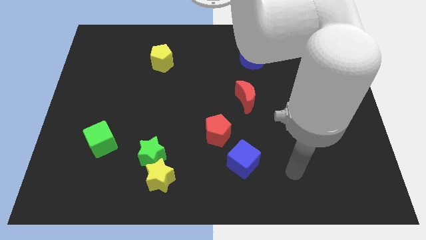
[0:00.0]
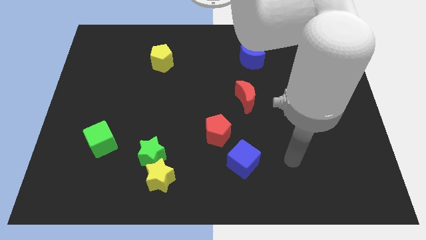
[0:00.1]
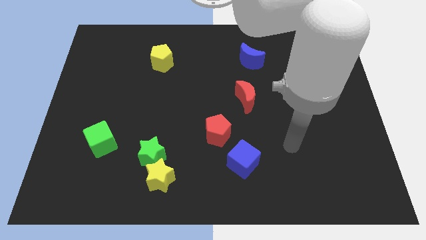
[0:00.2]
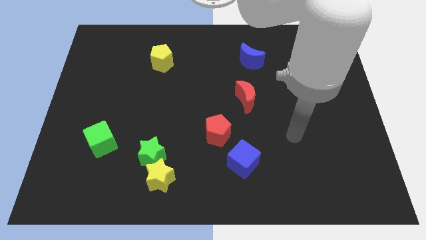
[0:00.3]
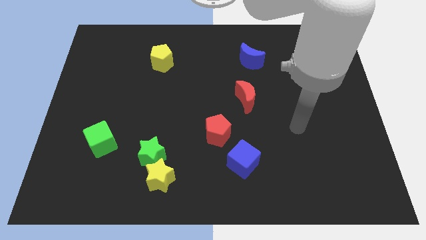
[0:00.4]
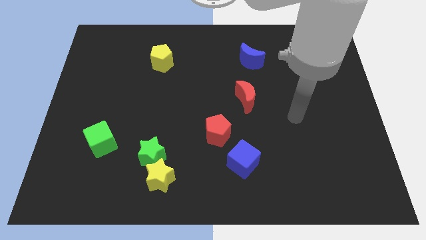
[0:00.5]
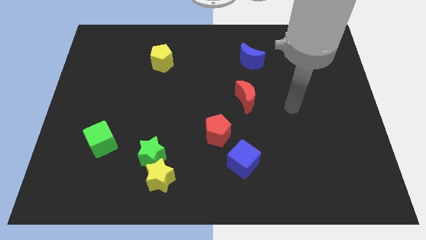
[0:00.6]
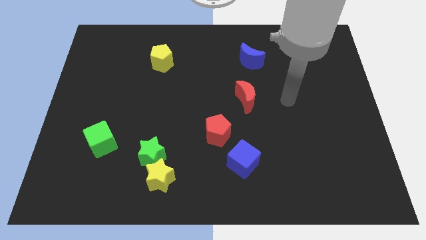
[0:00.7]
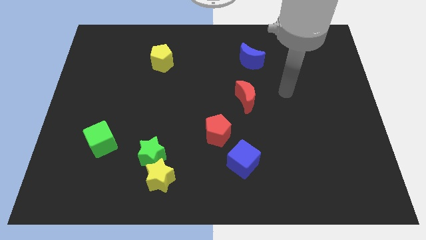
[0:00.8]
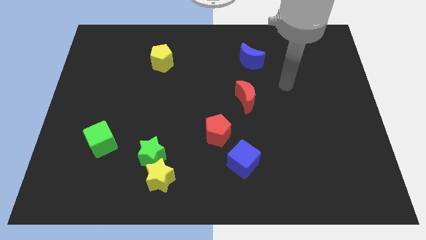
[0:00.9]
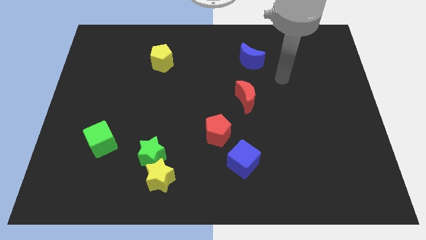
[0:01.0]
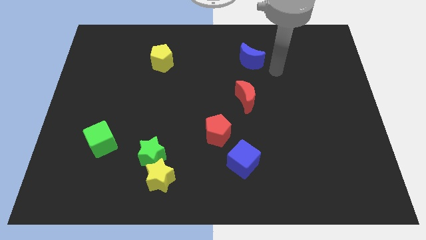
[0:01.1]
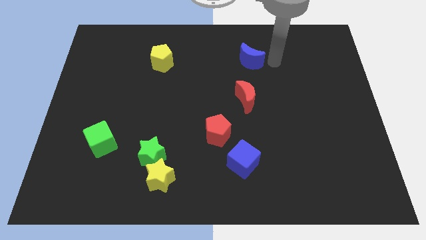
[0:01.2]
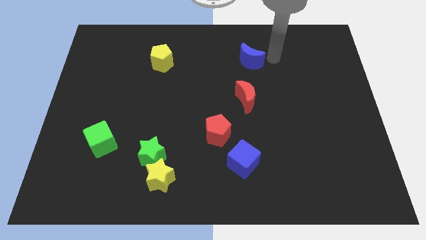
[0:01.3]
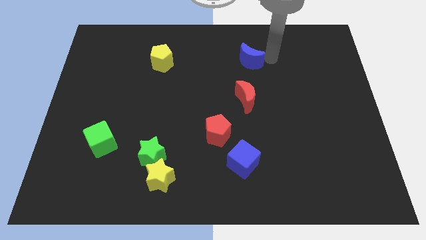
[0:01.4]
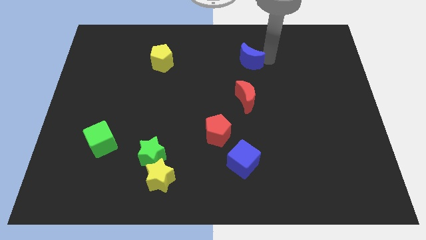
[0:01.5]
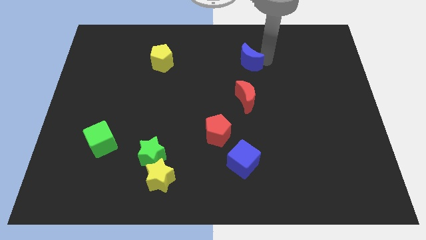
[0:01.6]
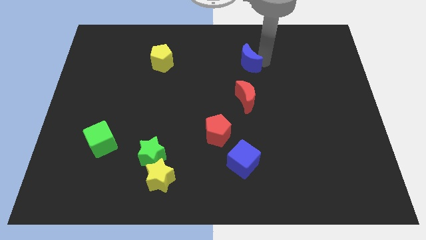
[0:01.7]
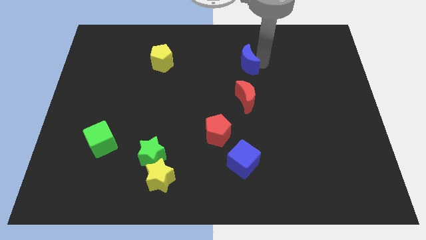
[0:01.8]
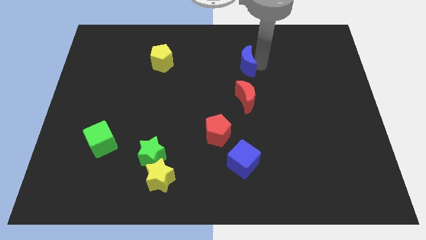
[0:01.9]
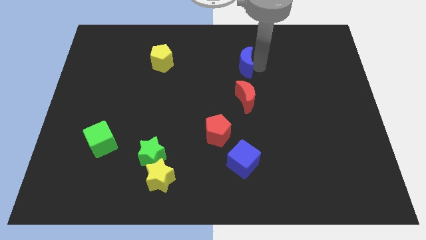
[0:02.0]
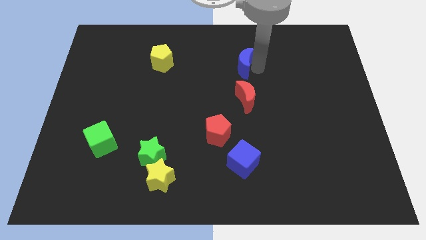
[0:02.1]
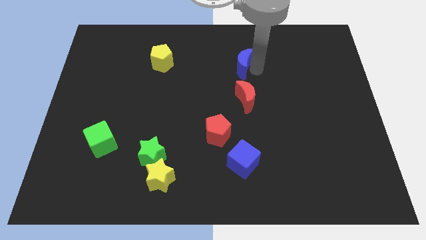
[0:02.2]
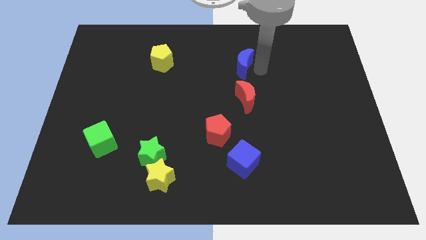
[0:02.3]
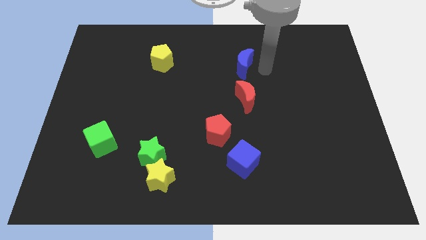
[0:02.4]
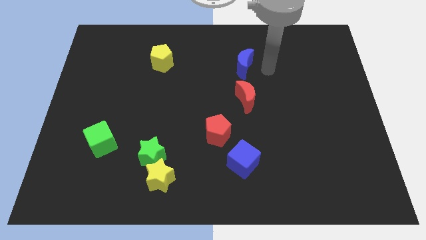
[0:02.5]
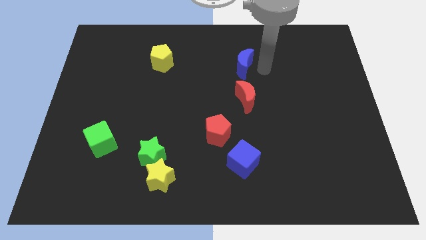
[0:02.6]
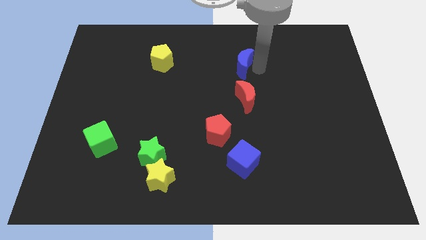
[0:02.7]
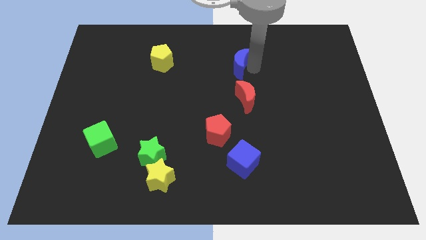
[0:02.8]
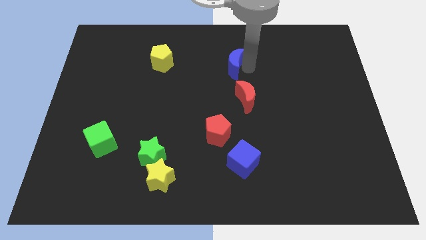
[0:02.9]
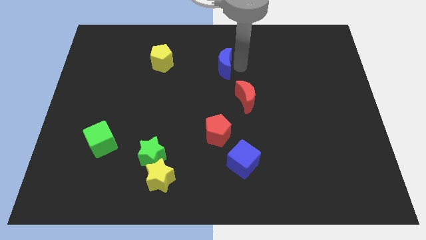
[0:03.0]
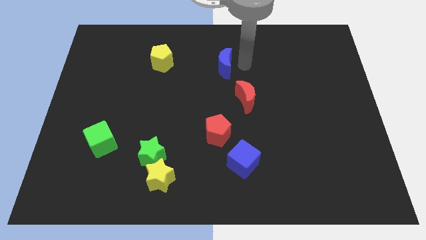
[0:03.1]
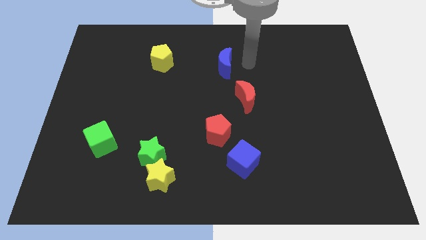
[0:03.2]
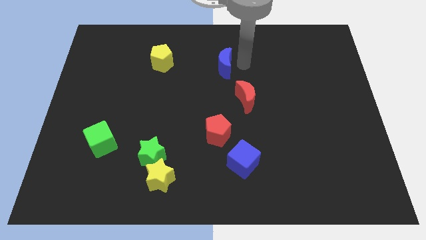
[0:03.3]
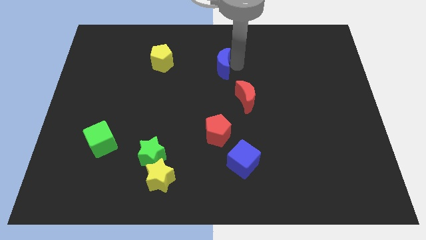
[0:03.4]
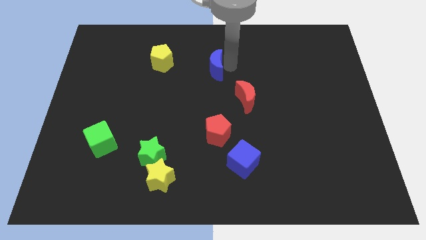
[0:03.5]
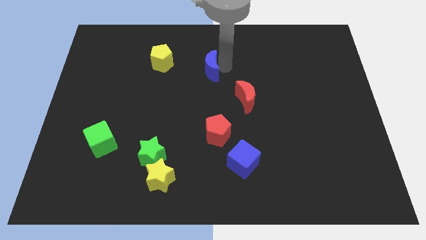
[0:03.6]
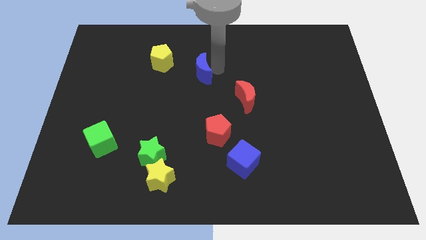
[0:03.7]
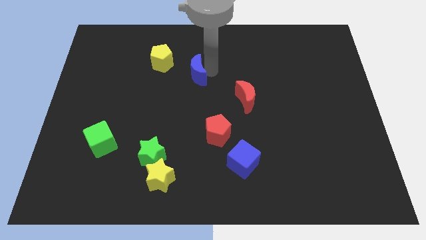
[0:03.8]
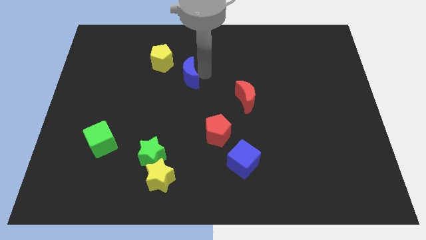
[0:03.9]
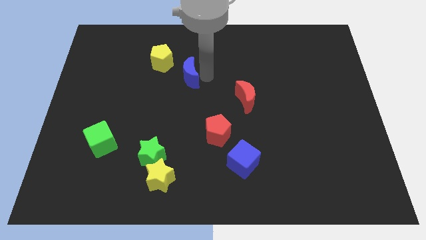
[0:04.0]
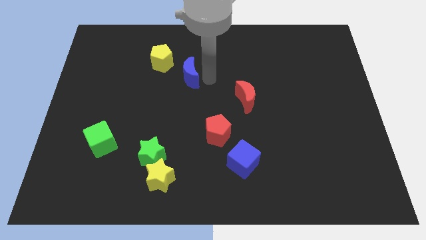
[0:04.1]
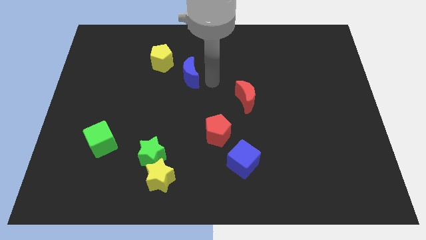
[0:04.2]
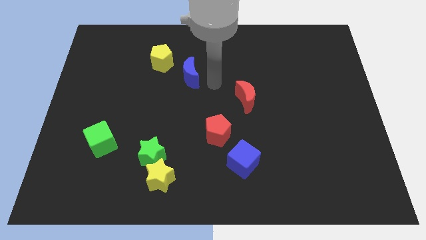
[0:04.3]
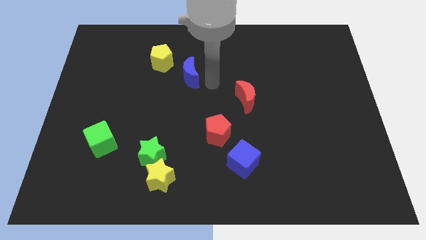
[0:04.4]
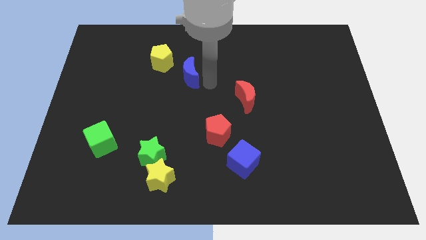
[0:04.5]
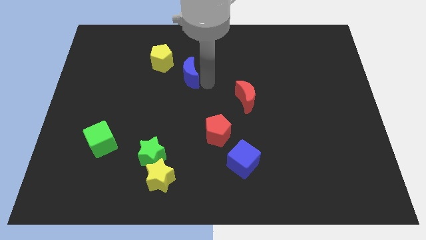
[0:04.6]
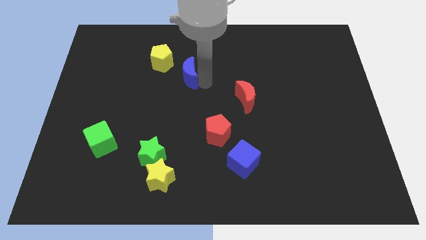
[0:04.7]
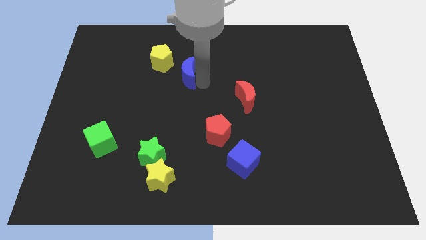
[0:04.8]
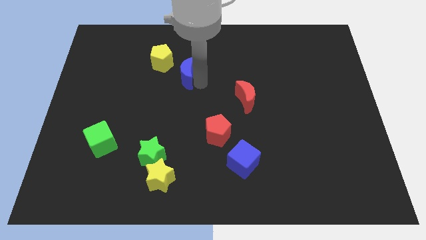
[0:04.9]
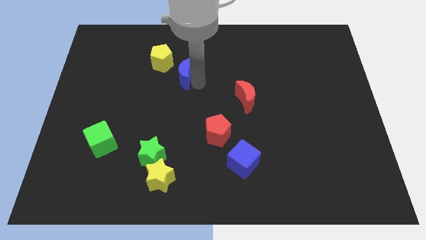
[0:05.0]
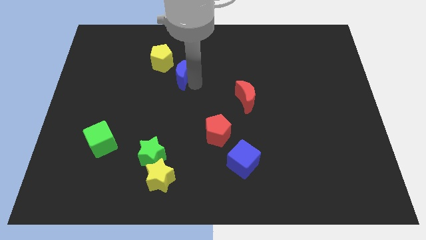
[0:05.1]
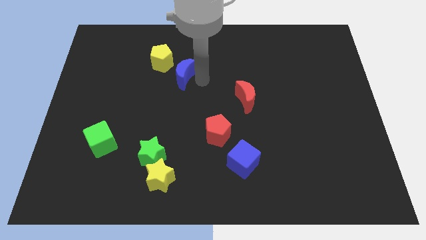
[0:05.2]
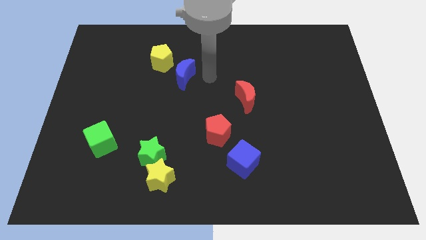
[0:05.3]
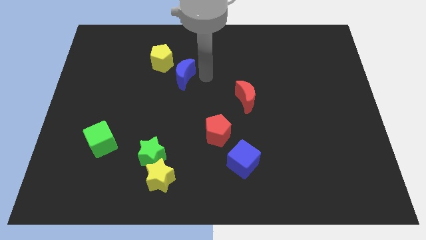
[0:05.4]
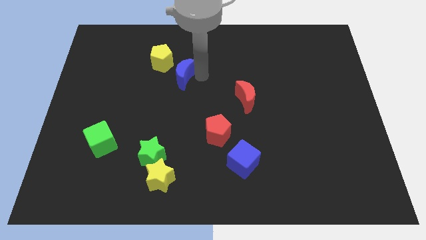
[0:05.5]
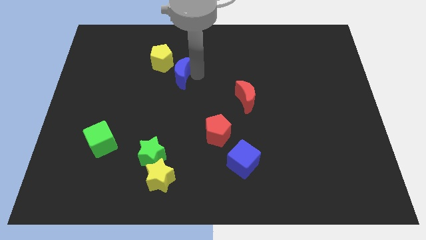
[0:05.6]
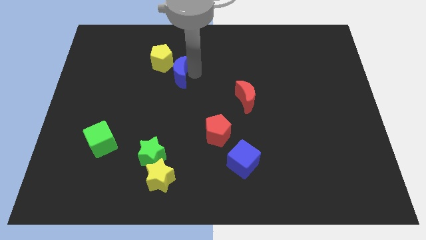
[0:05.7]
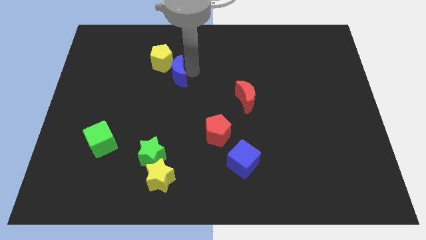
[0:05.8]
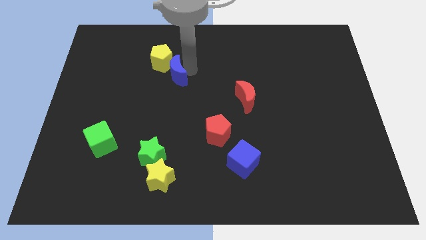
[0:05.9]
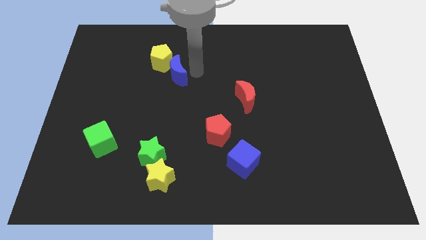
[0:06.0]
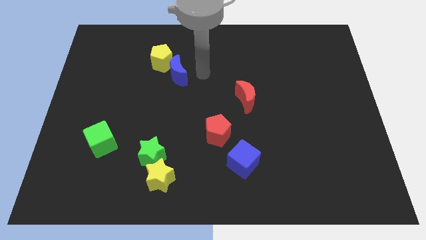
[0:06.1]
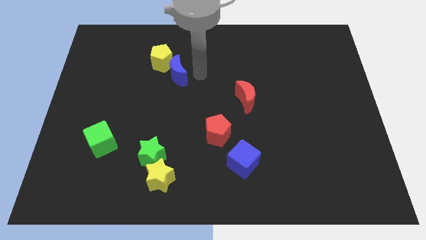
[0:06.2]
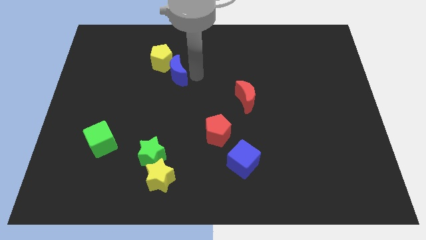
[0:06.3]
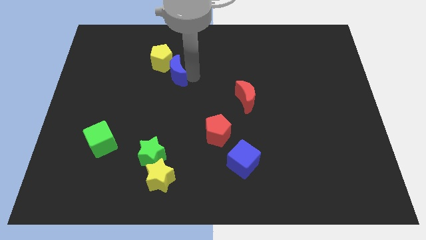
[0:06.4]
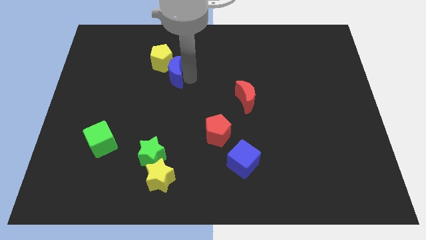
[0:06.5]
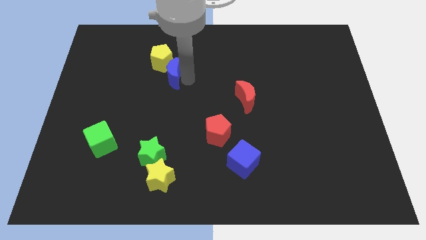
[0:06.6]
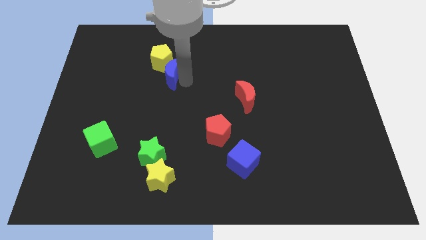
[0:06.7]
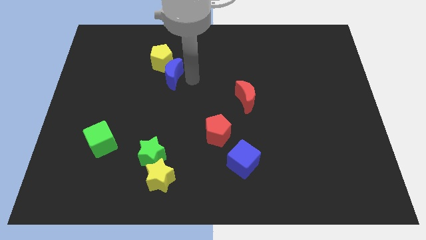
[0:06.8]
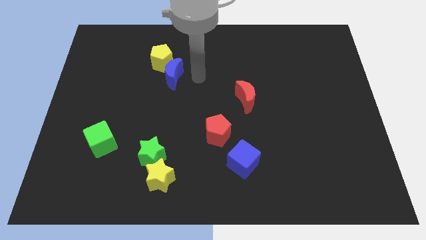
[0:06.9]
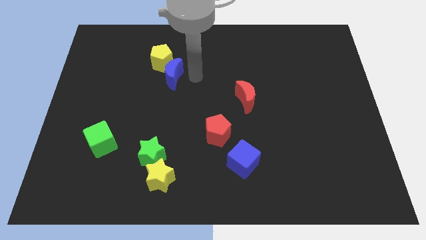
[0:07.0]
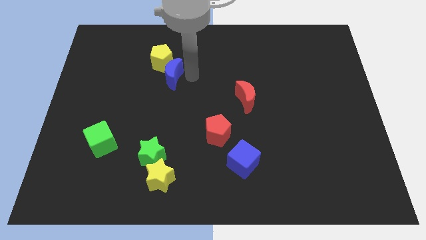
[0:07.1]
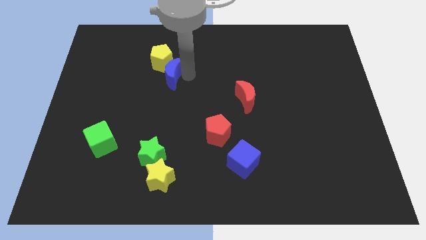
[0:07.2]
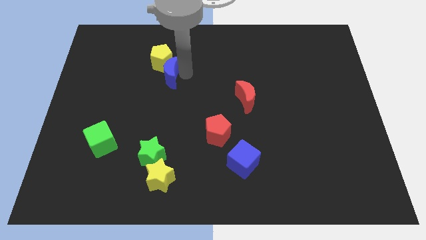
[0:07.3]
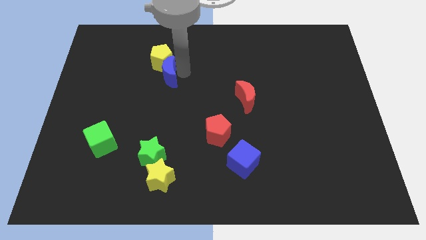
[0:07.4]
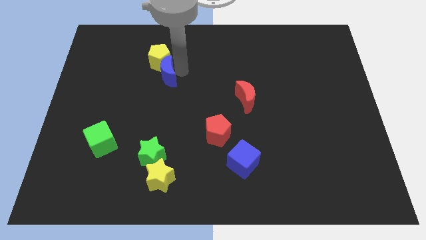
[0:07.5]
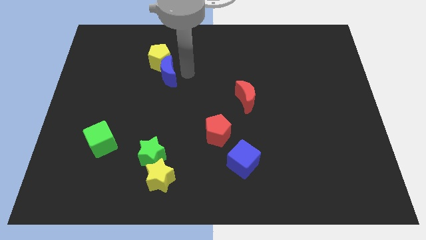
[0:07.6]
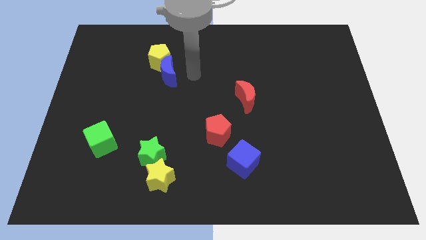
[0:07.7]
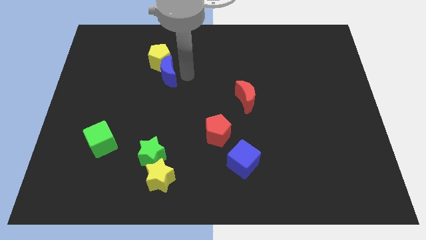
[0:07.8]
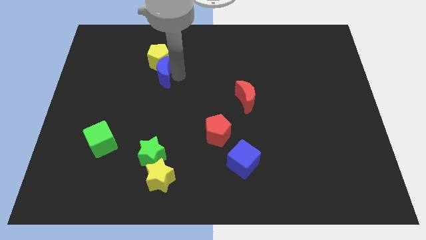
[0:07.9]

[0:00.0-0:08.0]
move the blue moon to the bottom left of the yellow pentagon
